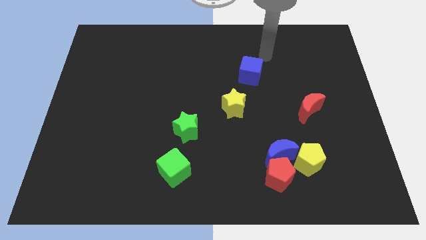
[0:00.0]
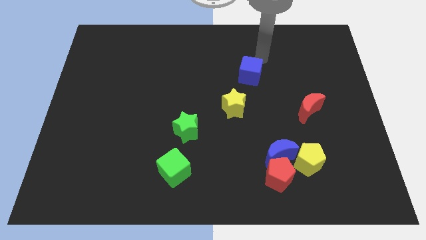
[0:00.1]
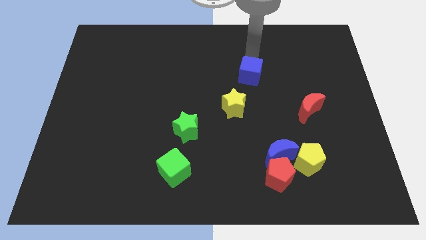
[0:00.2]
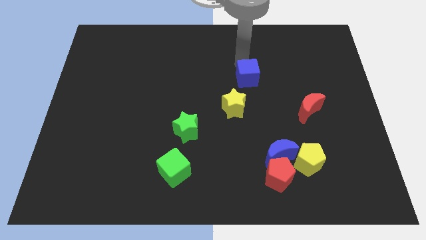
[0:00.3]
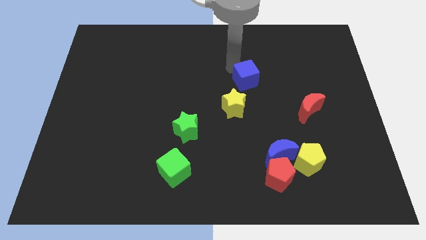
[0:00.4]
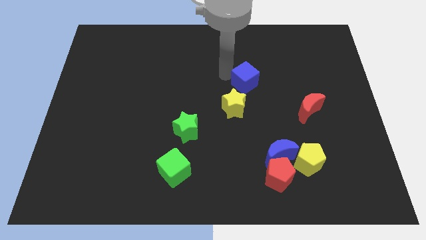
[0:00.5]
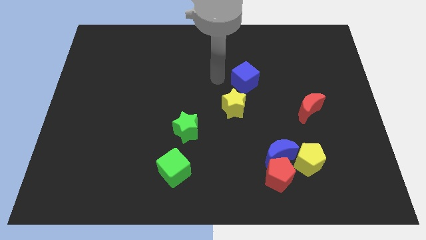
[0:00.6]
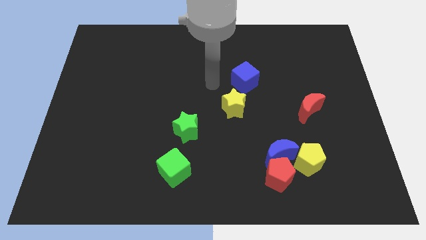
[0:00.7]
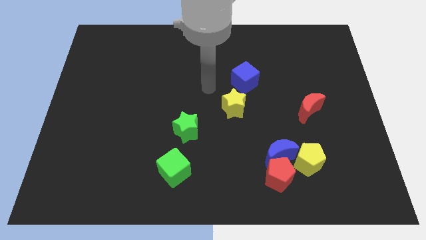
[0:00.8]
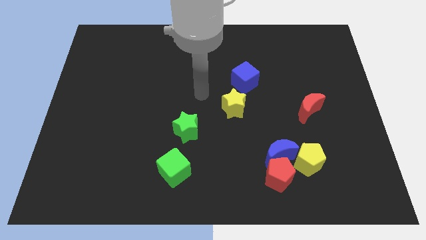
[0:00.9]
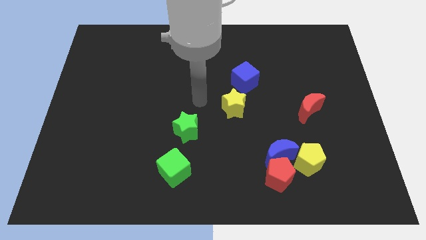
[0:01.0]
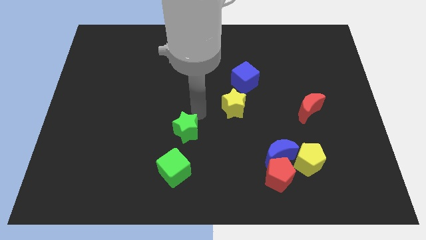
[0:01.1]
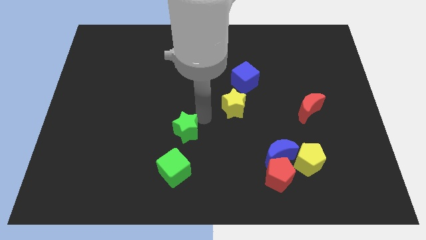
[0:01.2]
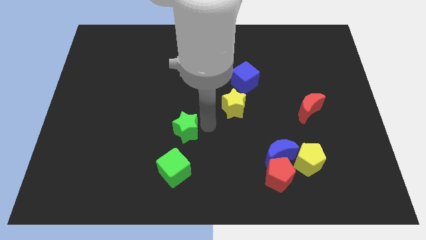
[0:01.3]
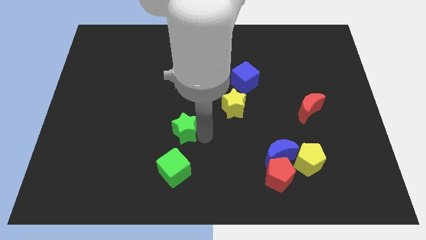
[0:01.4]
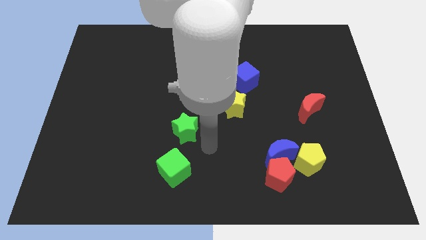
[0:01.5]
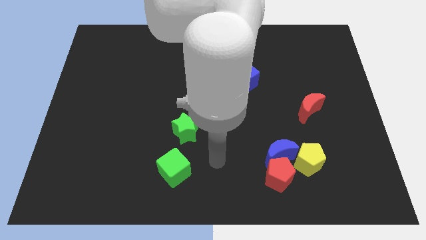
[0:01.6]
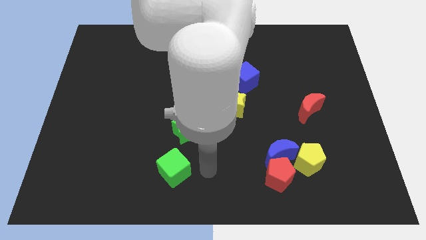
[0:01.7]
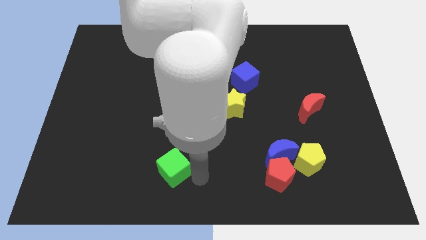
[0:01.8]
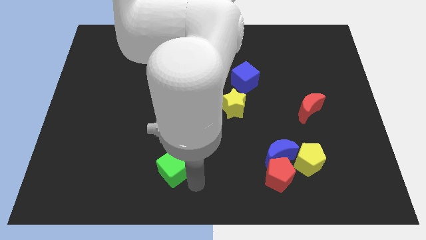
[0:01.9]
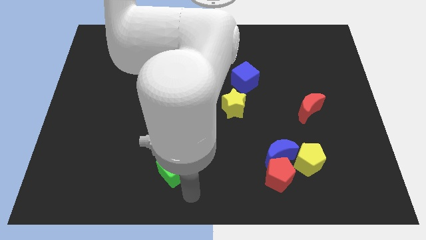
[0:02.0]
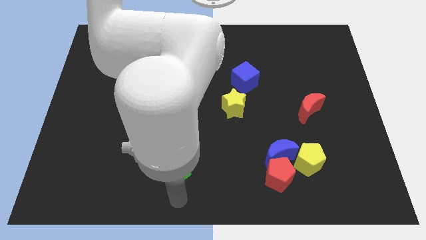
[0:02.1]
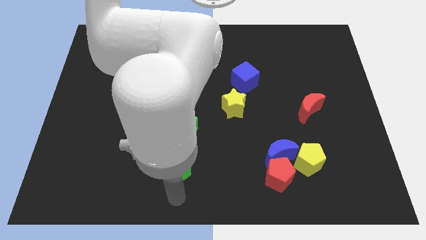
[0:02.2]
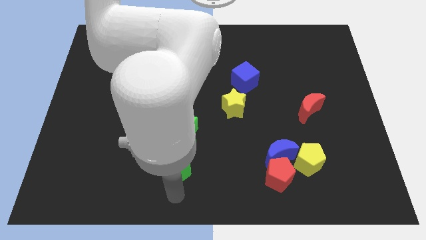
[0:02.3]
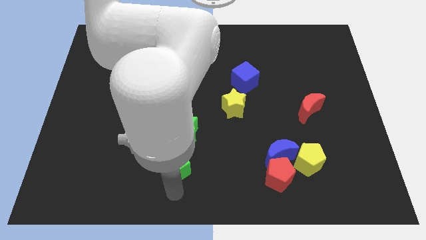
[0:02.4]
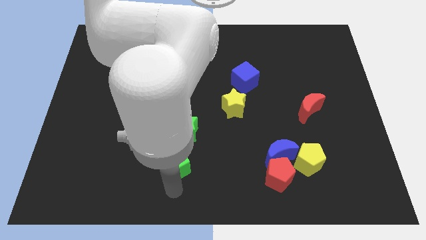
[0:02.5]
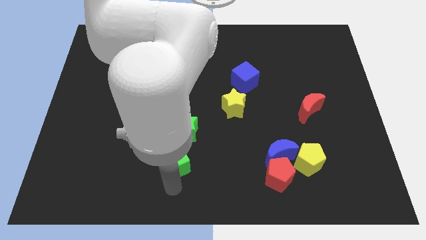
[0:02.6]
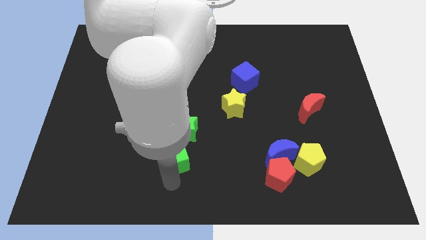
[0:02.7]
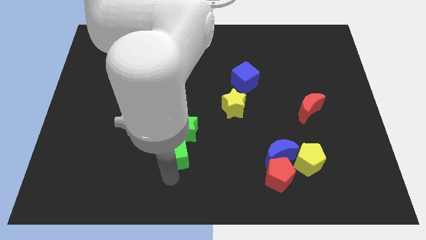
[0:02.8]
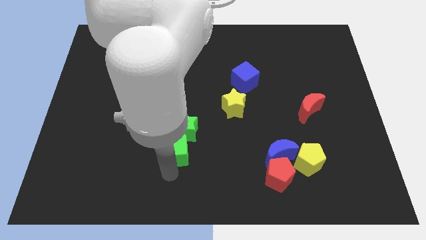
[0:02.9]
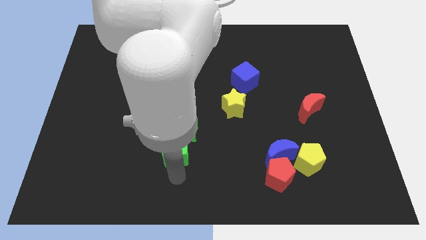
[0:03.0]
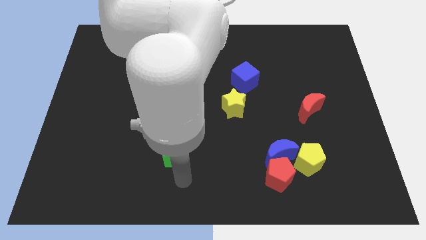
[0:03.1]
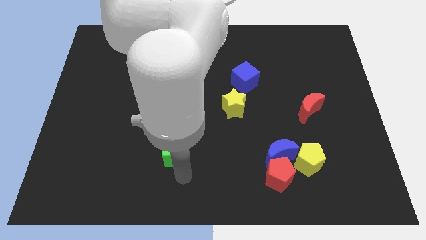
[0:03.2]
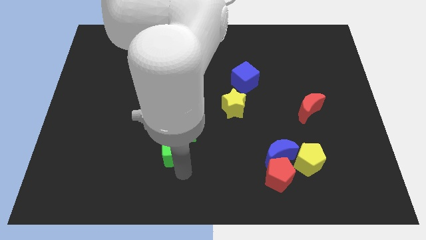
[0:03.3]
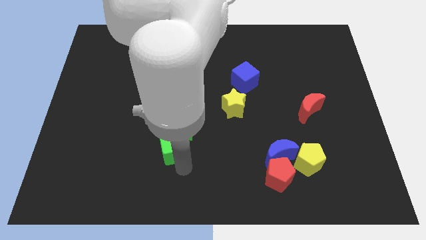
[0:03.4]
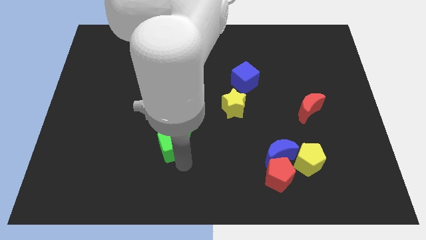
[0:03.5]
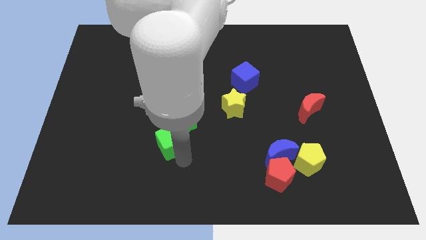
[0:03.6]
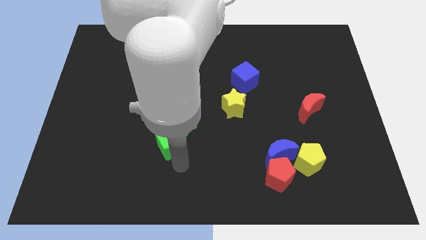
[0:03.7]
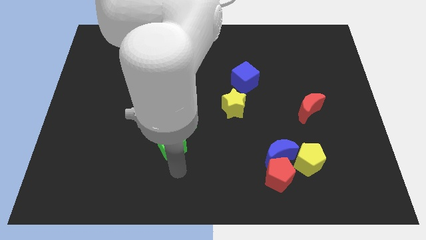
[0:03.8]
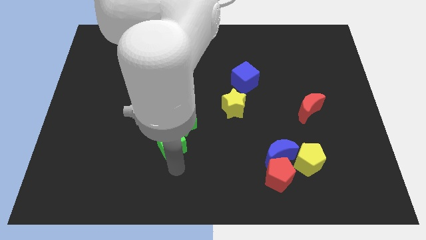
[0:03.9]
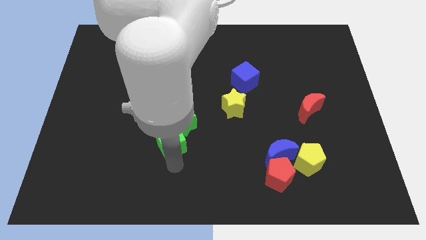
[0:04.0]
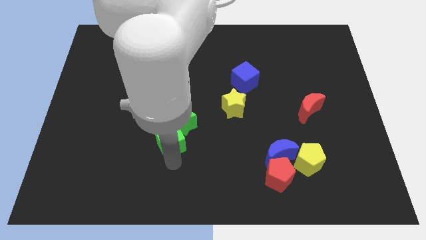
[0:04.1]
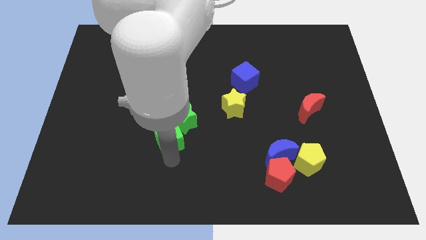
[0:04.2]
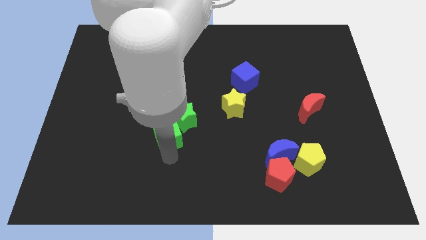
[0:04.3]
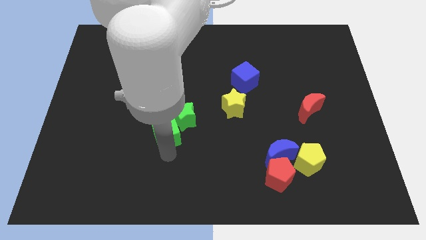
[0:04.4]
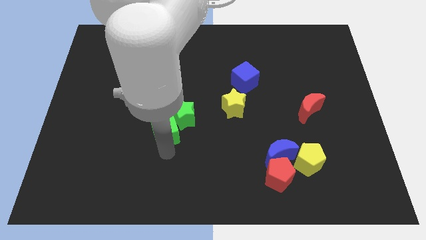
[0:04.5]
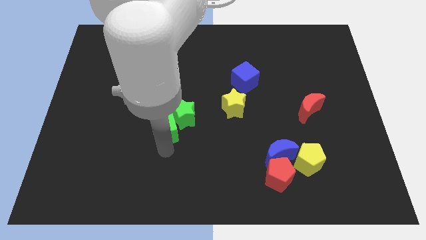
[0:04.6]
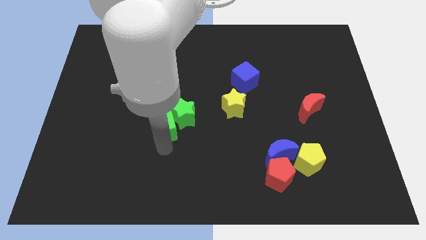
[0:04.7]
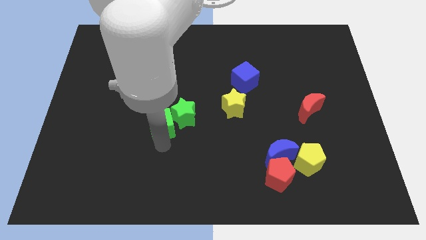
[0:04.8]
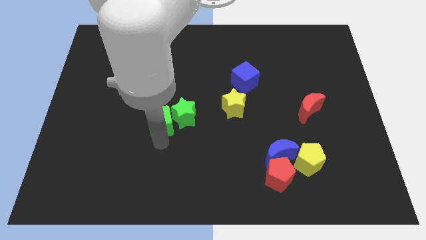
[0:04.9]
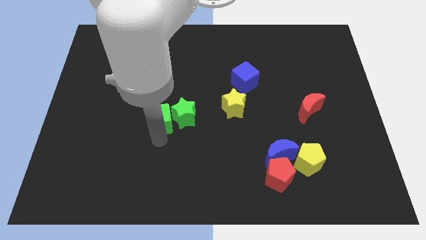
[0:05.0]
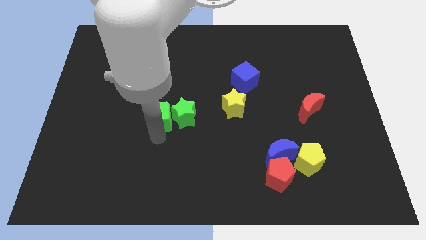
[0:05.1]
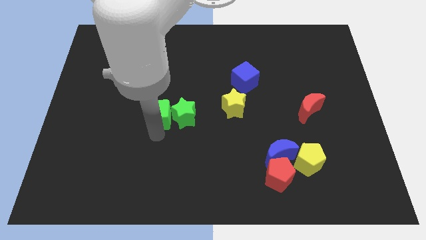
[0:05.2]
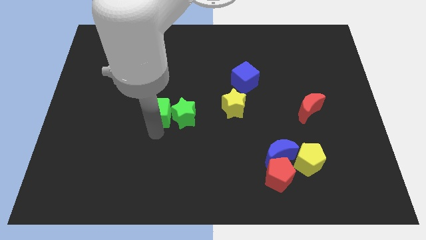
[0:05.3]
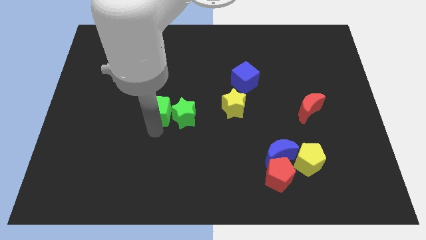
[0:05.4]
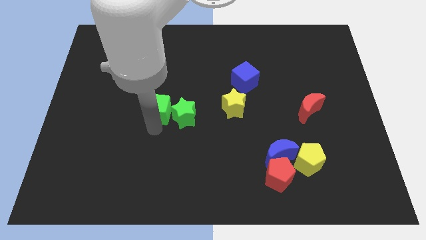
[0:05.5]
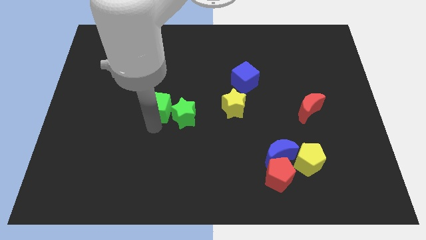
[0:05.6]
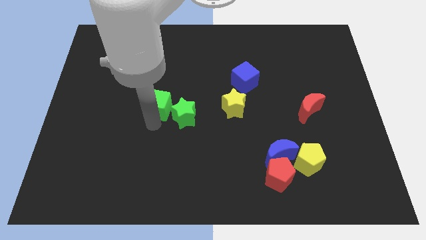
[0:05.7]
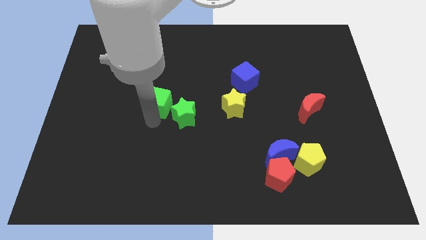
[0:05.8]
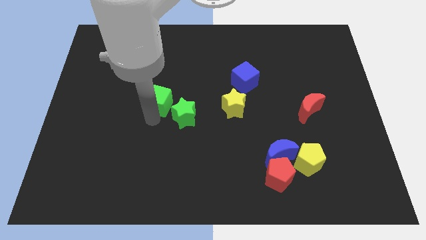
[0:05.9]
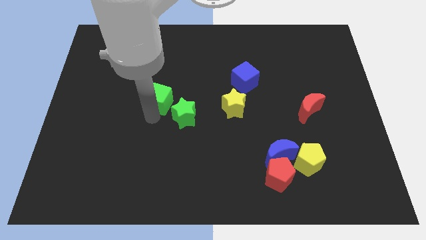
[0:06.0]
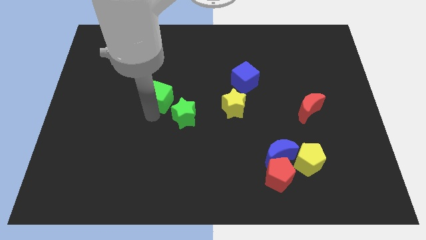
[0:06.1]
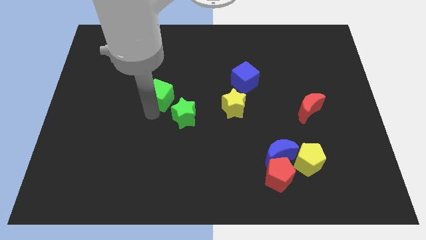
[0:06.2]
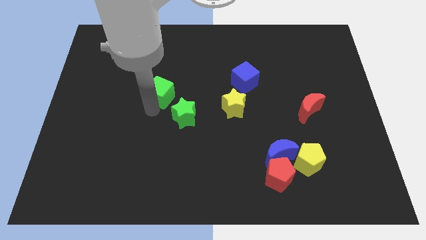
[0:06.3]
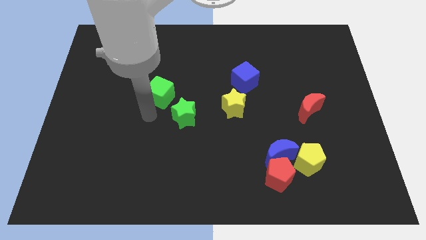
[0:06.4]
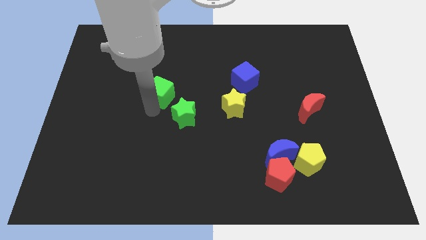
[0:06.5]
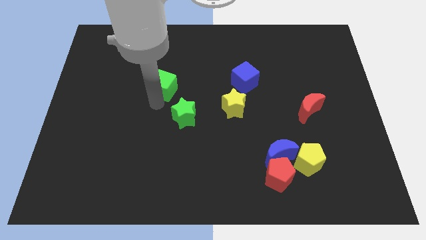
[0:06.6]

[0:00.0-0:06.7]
push the green cube upwards

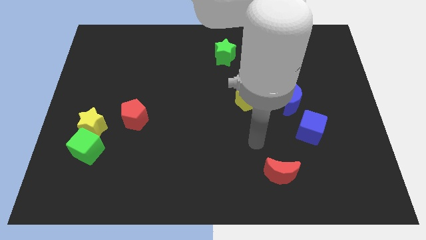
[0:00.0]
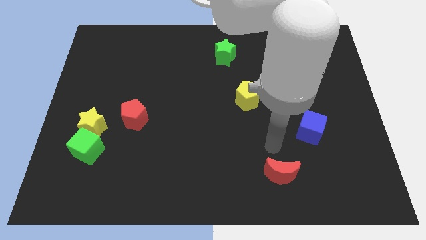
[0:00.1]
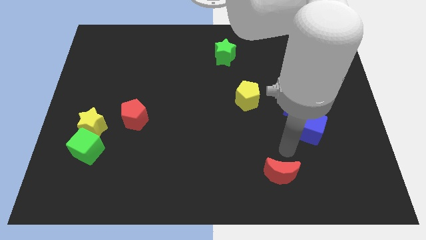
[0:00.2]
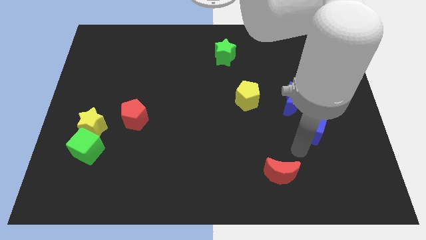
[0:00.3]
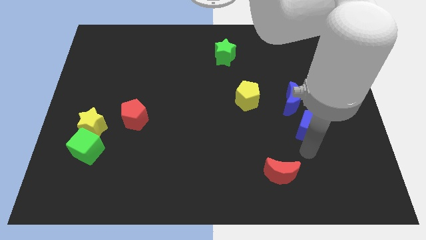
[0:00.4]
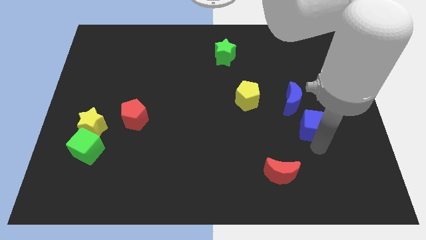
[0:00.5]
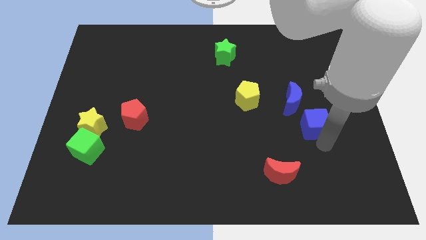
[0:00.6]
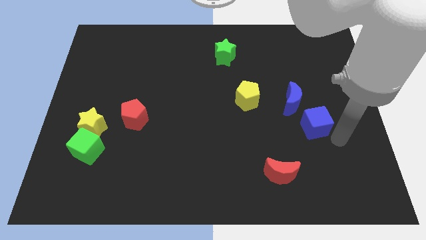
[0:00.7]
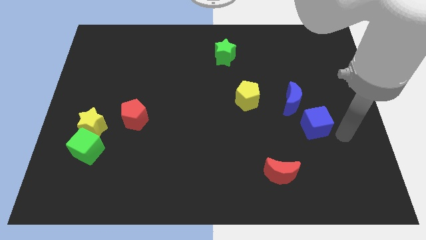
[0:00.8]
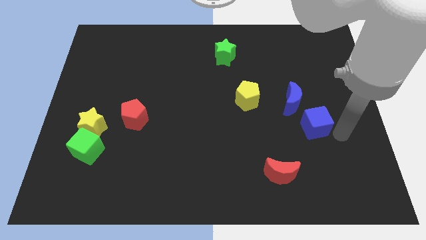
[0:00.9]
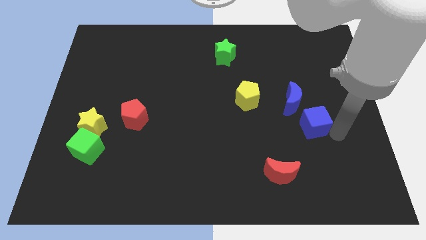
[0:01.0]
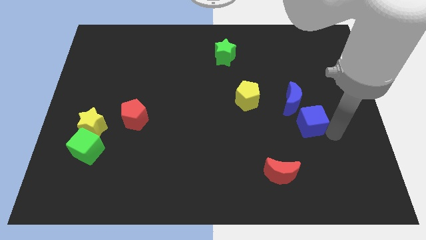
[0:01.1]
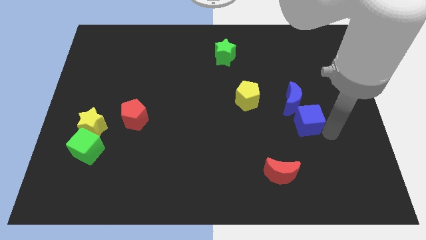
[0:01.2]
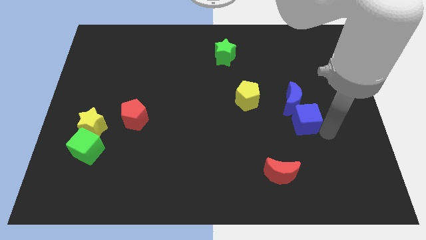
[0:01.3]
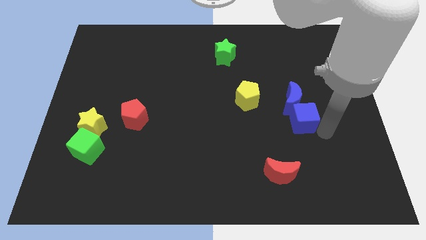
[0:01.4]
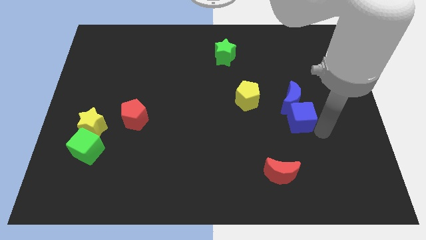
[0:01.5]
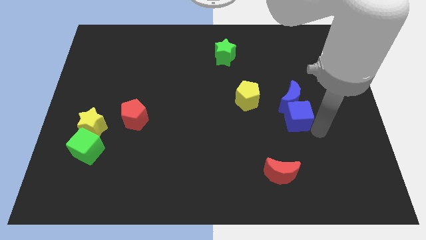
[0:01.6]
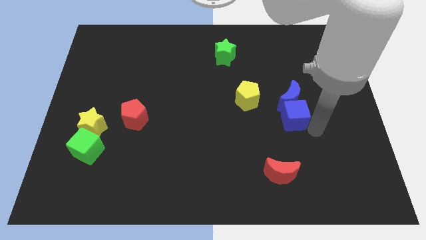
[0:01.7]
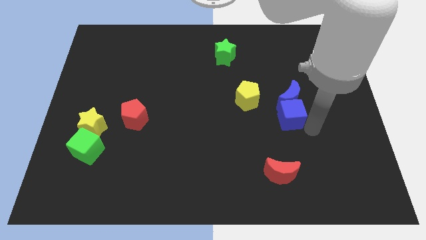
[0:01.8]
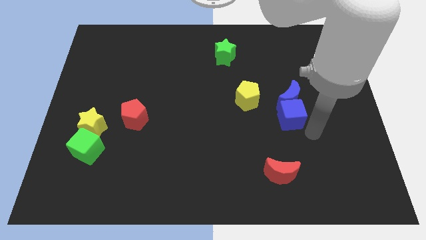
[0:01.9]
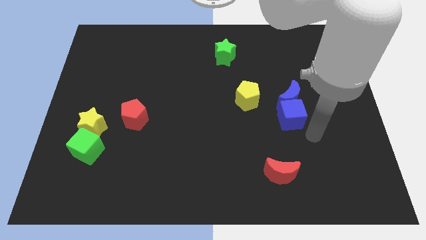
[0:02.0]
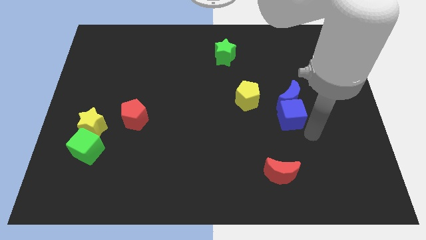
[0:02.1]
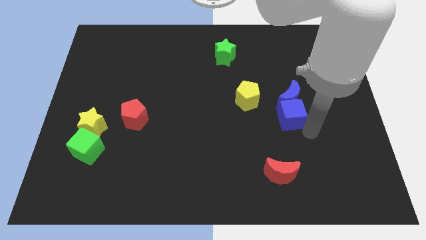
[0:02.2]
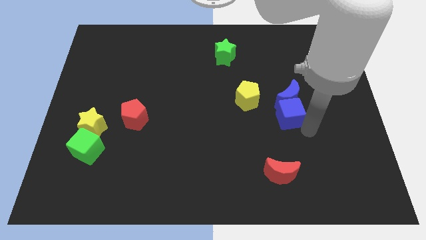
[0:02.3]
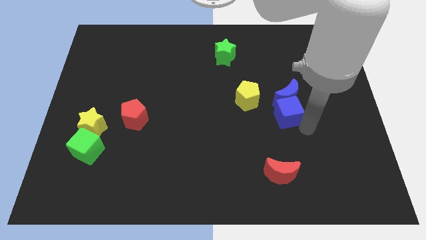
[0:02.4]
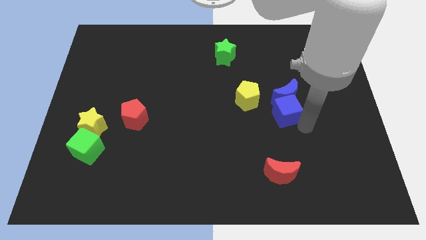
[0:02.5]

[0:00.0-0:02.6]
push the blue cube upwards and left diagonally a little
